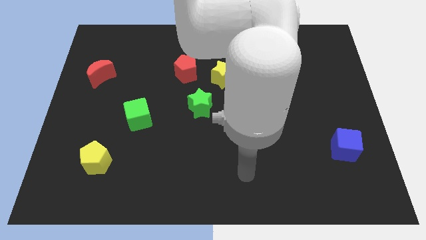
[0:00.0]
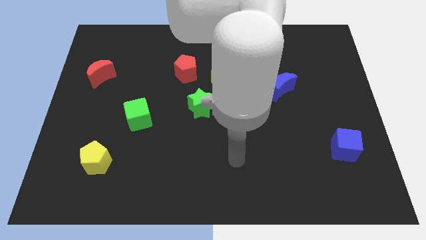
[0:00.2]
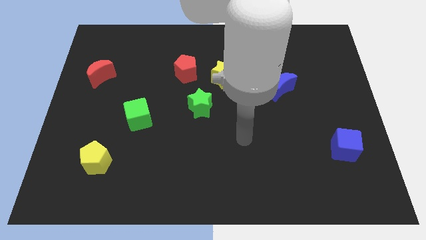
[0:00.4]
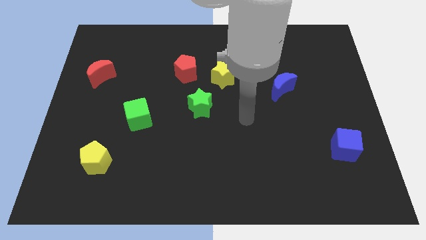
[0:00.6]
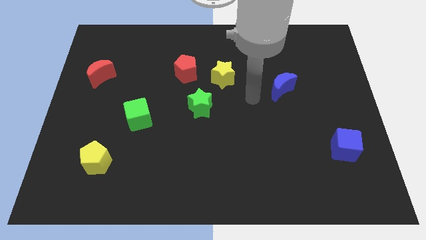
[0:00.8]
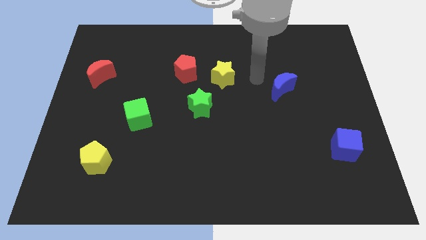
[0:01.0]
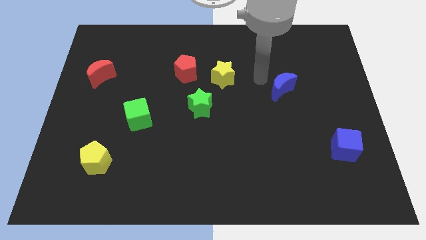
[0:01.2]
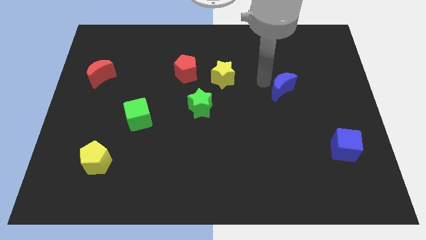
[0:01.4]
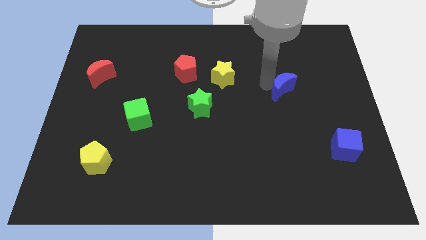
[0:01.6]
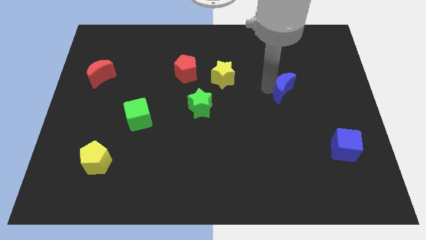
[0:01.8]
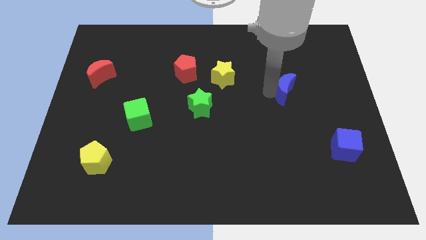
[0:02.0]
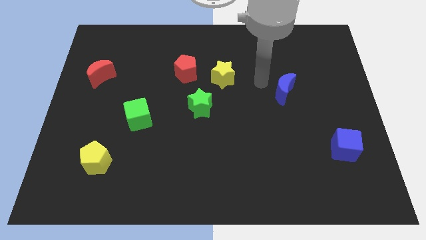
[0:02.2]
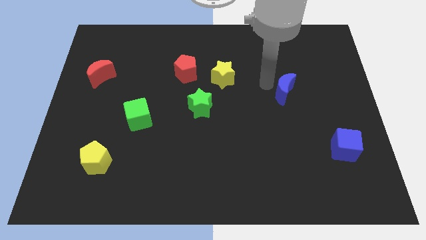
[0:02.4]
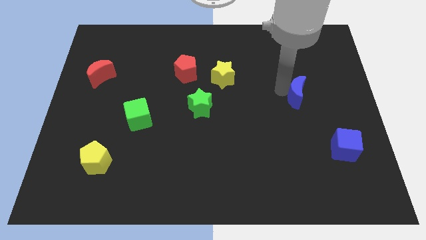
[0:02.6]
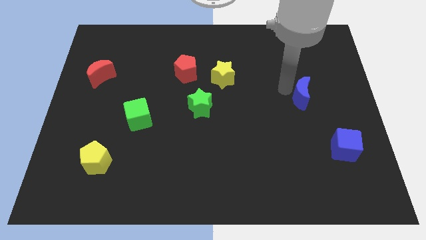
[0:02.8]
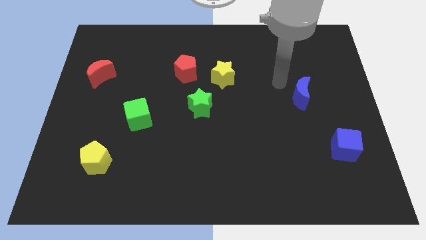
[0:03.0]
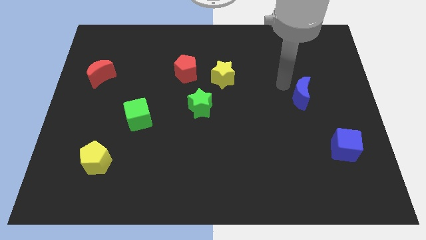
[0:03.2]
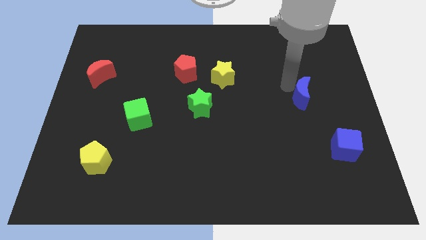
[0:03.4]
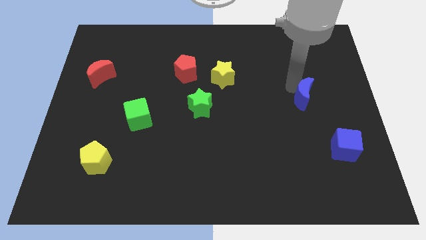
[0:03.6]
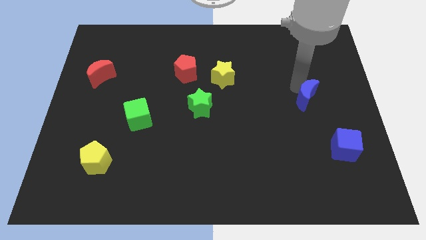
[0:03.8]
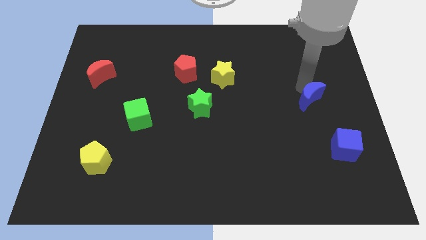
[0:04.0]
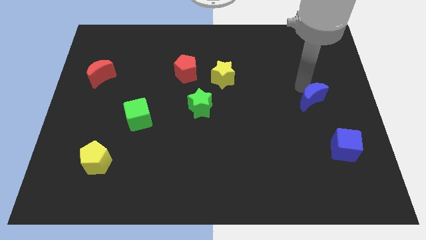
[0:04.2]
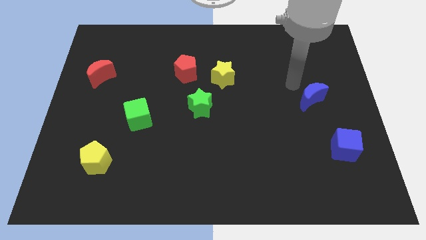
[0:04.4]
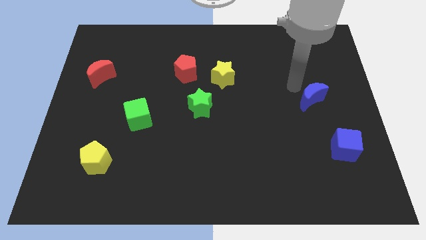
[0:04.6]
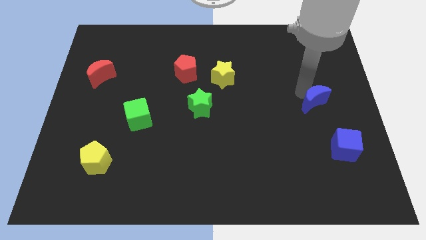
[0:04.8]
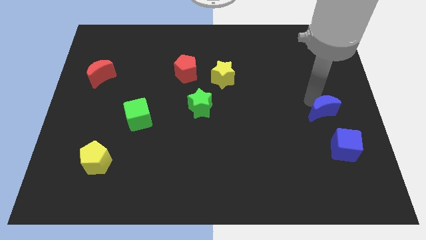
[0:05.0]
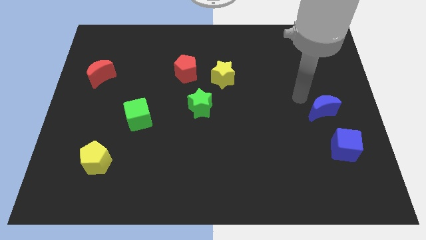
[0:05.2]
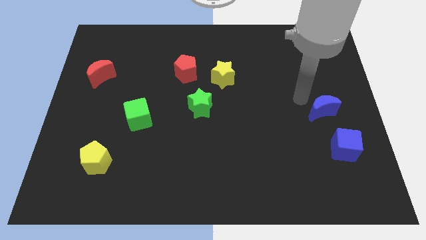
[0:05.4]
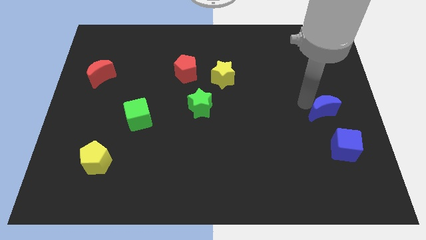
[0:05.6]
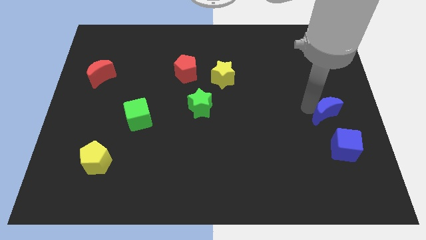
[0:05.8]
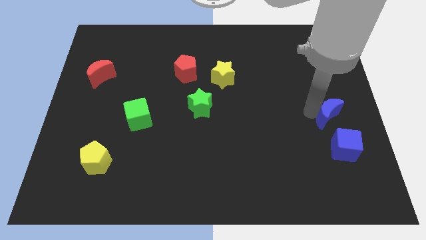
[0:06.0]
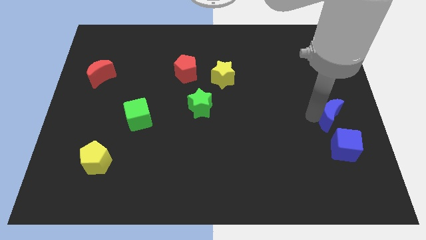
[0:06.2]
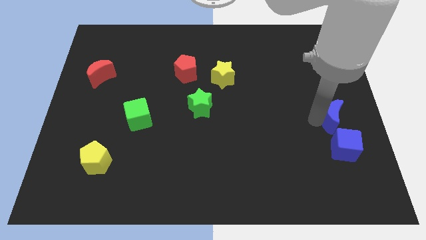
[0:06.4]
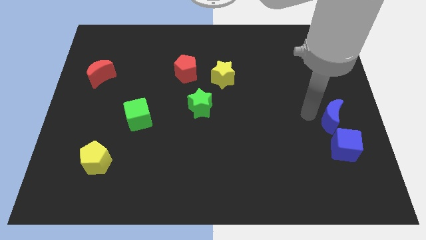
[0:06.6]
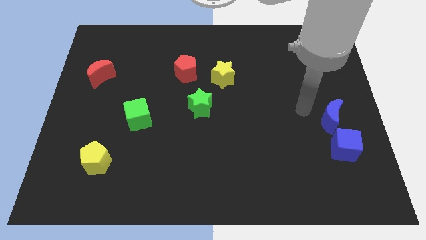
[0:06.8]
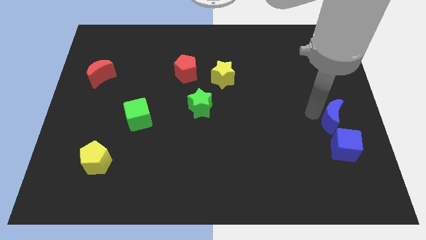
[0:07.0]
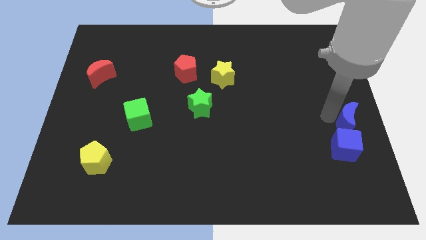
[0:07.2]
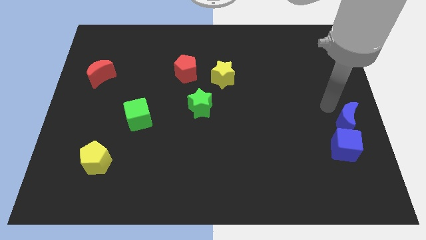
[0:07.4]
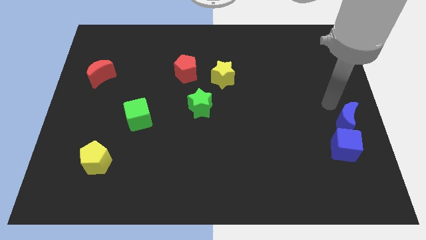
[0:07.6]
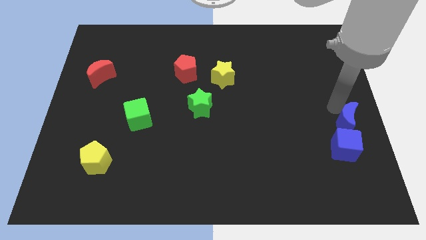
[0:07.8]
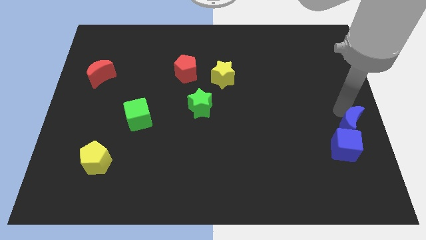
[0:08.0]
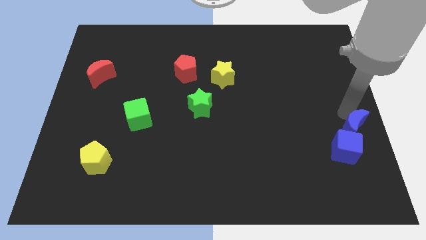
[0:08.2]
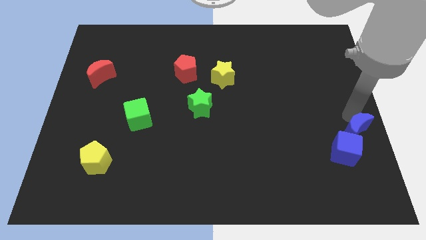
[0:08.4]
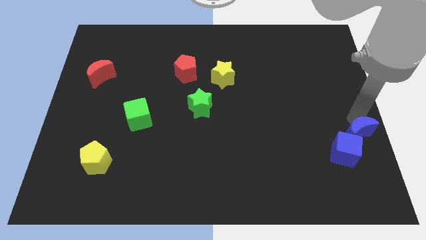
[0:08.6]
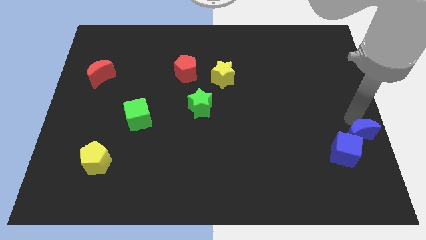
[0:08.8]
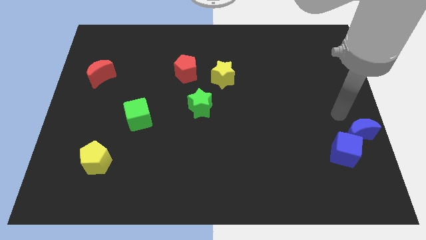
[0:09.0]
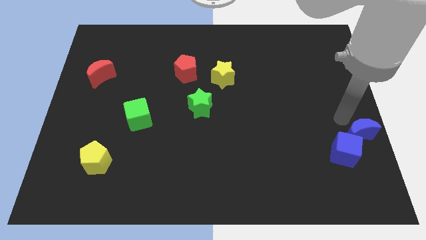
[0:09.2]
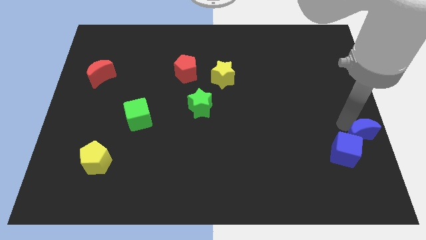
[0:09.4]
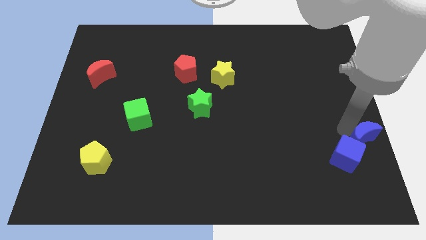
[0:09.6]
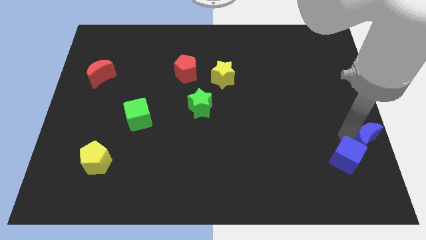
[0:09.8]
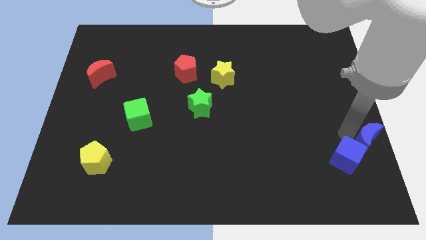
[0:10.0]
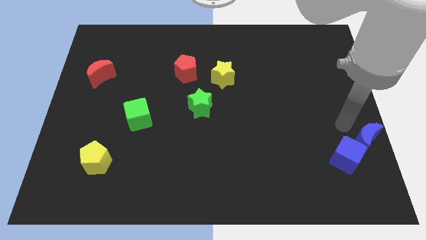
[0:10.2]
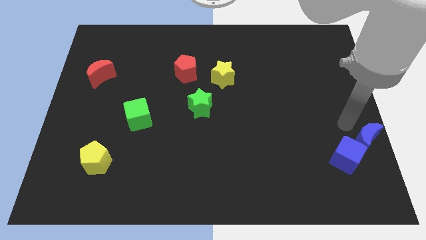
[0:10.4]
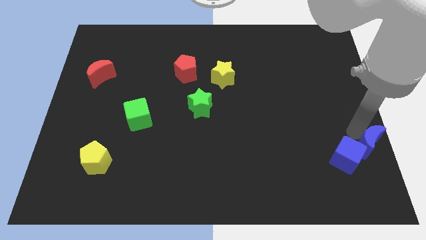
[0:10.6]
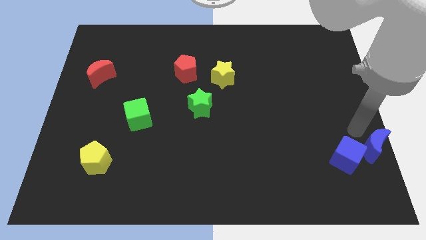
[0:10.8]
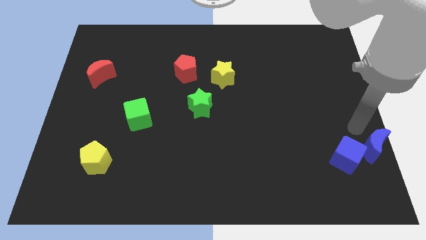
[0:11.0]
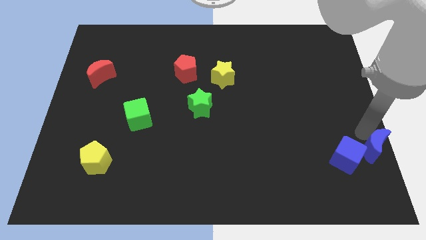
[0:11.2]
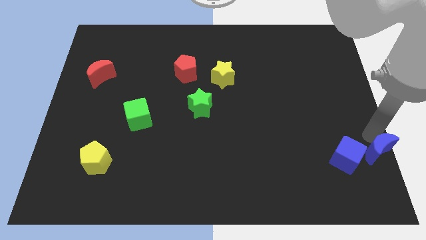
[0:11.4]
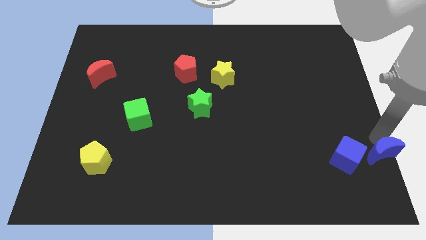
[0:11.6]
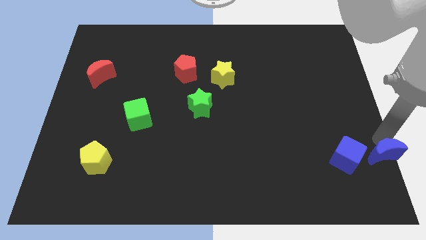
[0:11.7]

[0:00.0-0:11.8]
move the blue moon to the bottom right

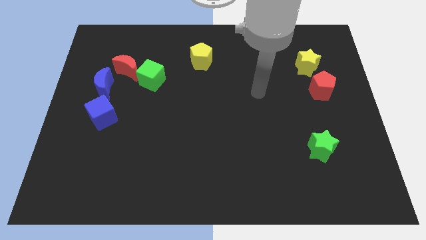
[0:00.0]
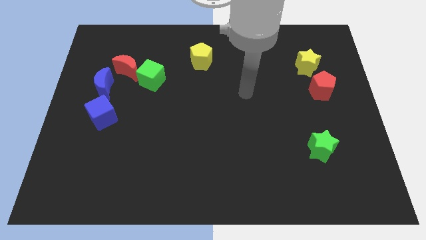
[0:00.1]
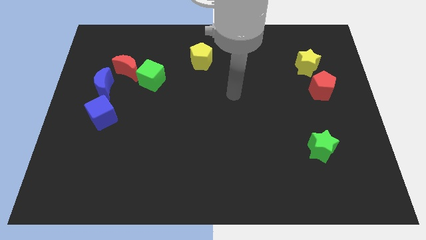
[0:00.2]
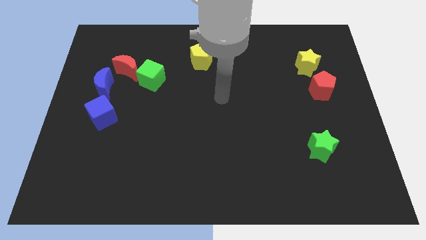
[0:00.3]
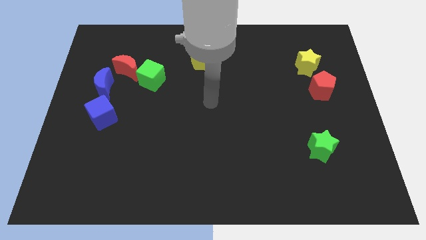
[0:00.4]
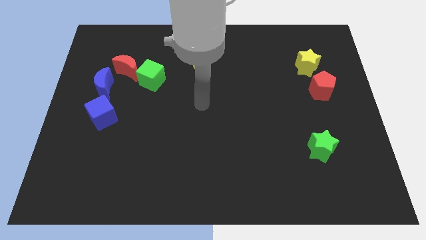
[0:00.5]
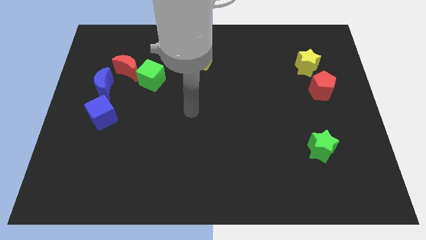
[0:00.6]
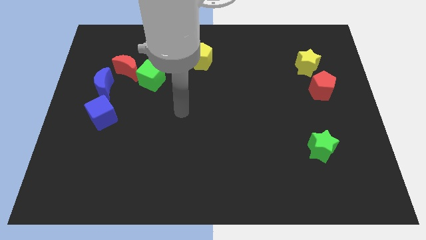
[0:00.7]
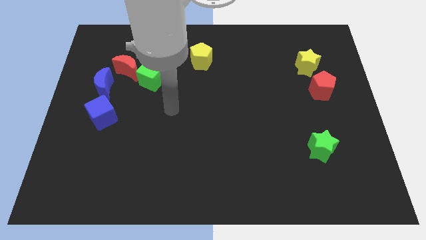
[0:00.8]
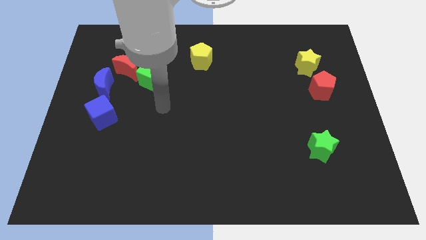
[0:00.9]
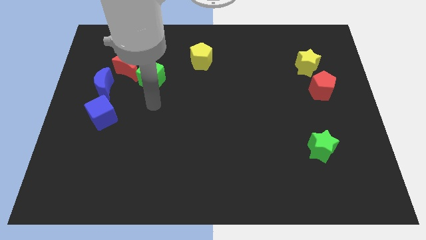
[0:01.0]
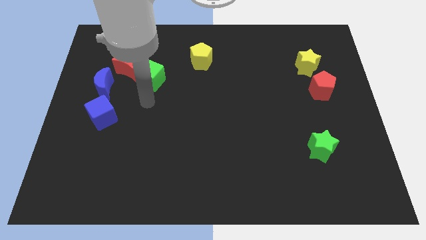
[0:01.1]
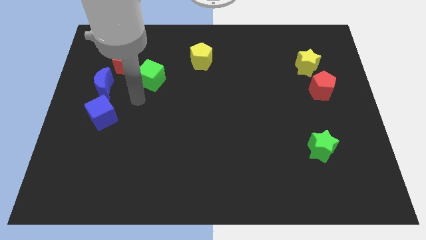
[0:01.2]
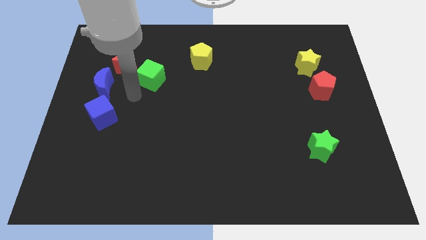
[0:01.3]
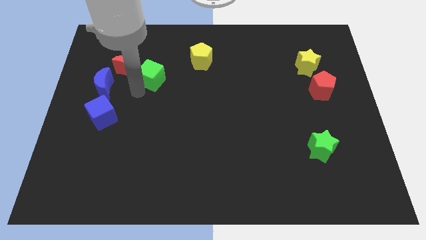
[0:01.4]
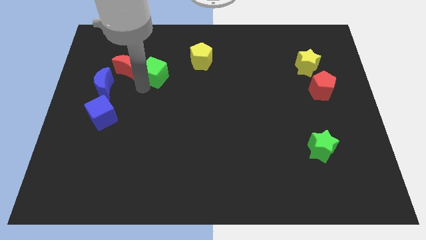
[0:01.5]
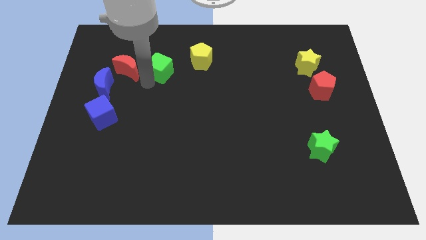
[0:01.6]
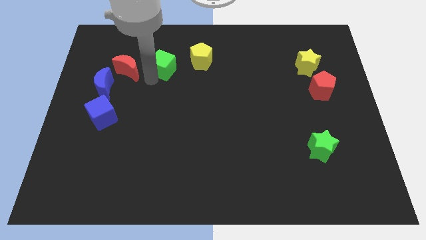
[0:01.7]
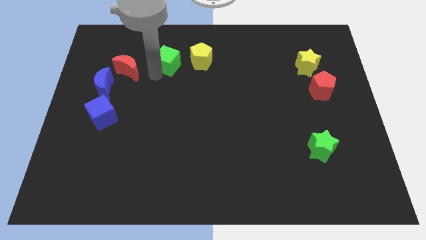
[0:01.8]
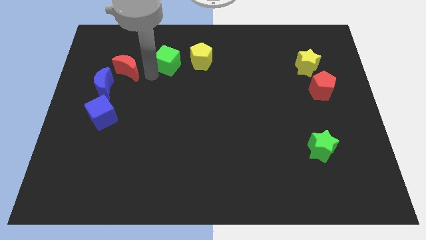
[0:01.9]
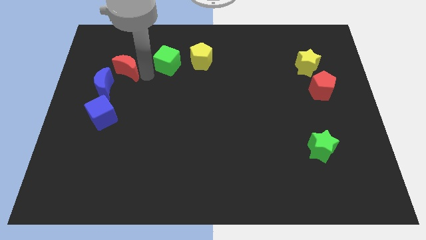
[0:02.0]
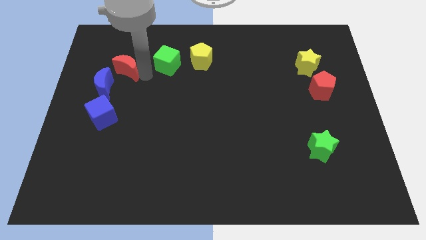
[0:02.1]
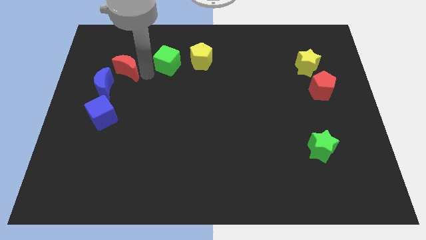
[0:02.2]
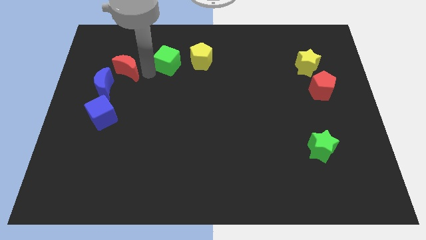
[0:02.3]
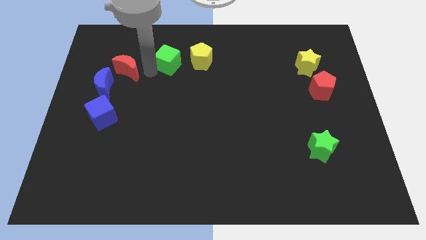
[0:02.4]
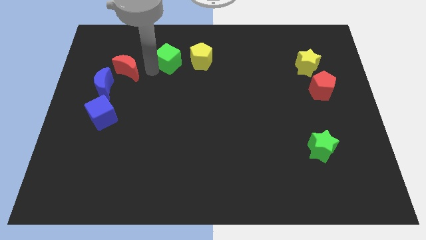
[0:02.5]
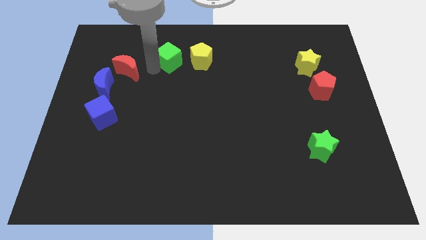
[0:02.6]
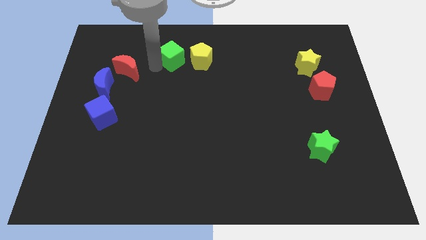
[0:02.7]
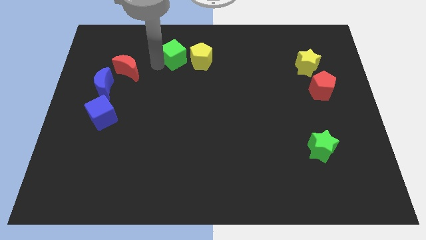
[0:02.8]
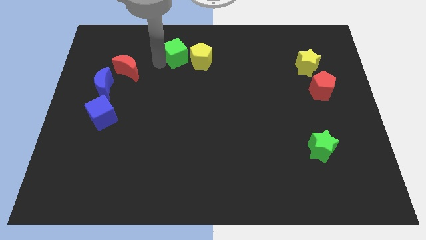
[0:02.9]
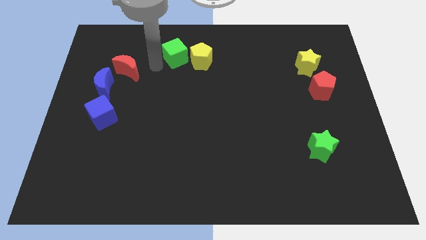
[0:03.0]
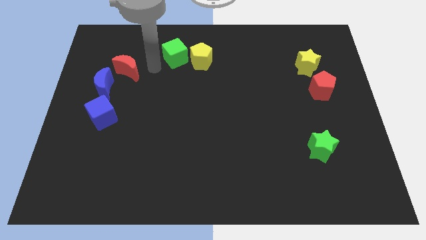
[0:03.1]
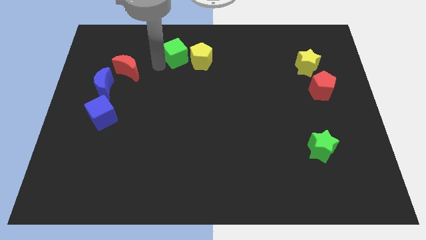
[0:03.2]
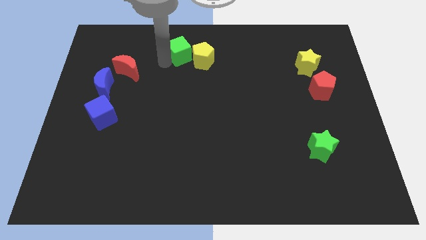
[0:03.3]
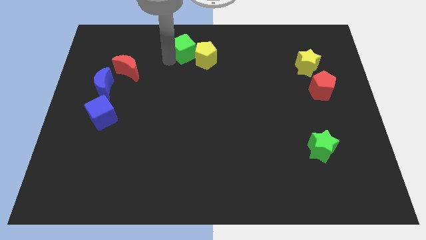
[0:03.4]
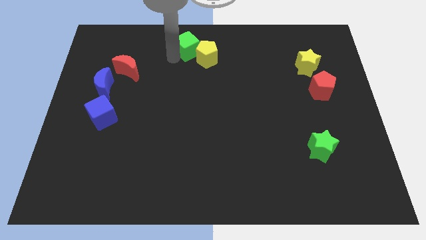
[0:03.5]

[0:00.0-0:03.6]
slide the green cube to the towards your base
